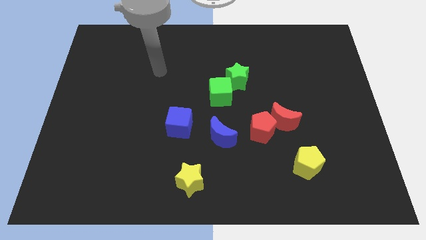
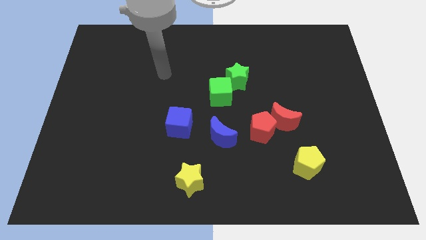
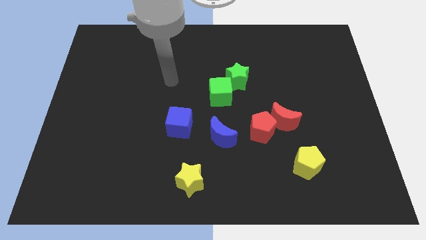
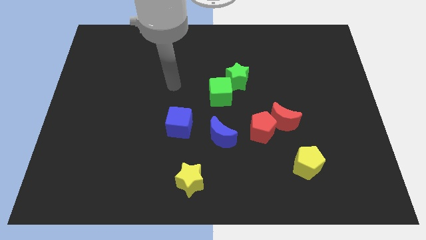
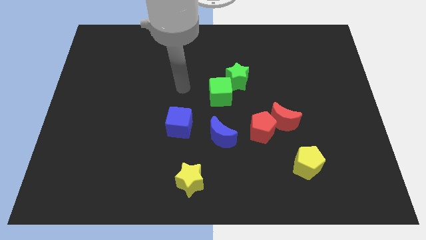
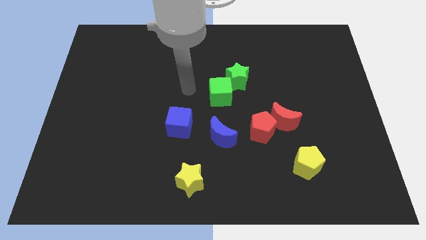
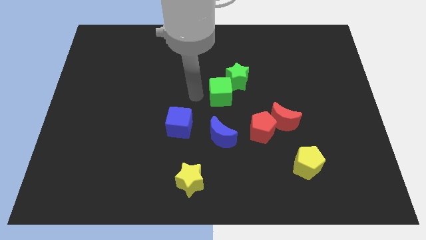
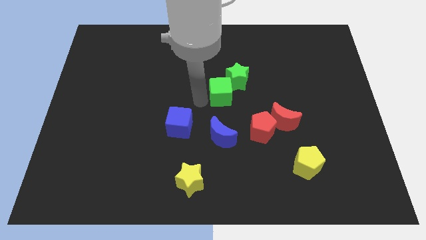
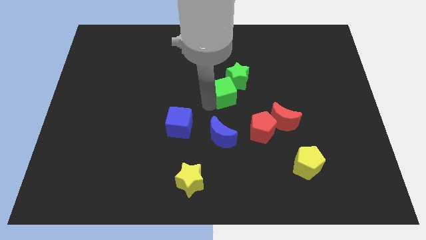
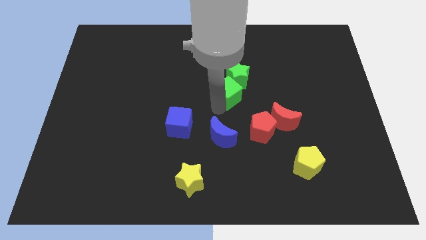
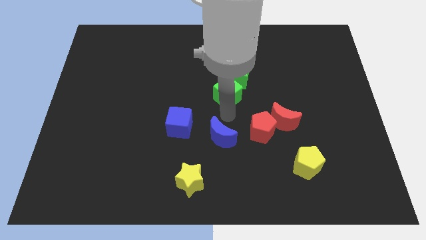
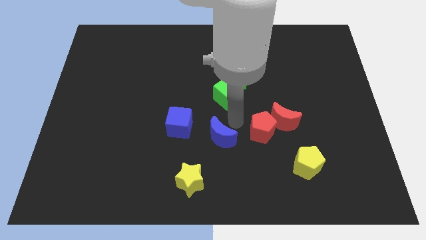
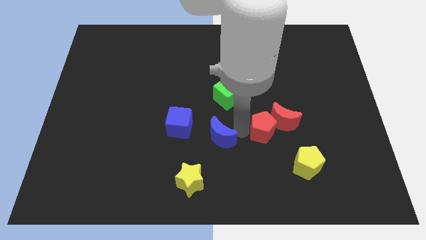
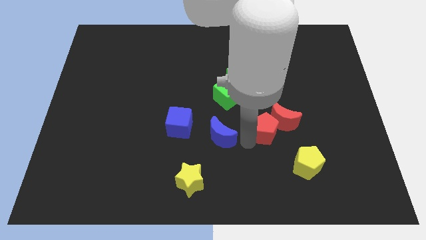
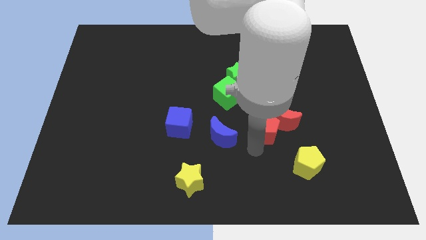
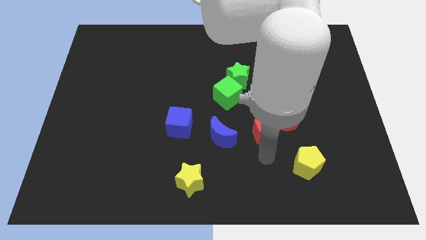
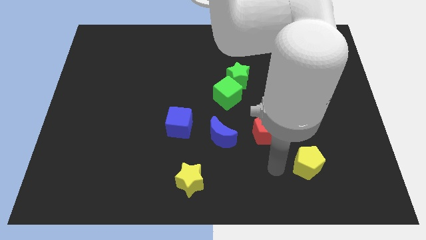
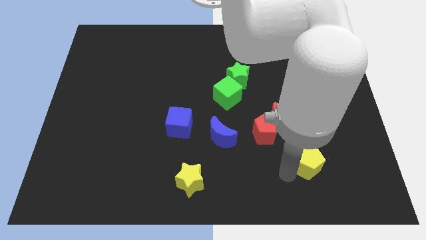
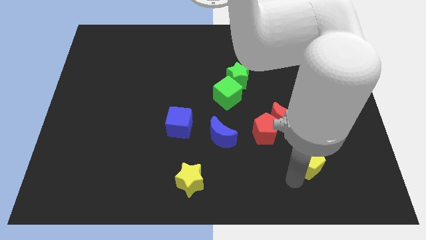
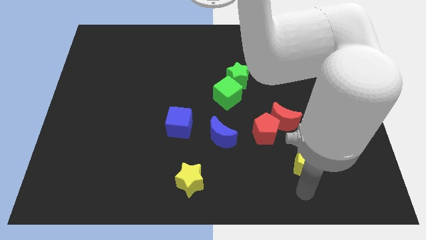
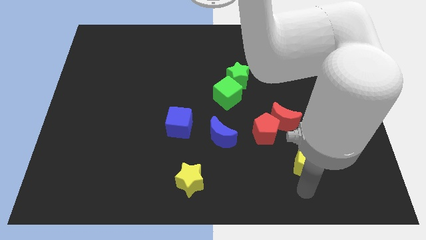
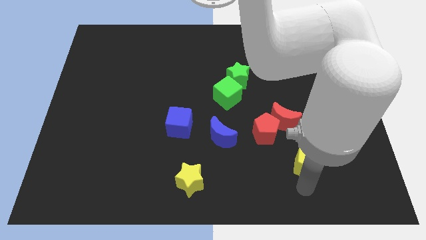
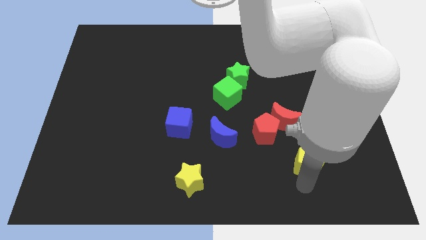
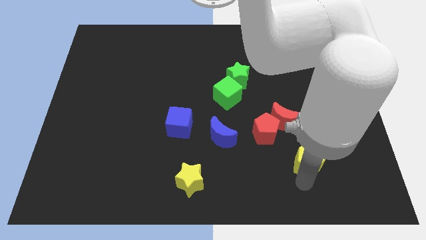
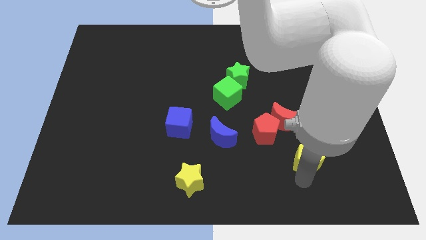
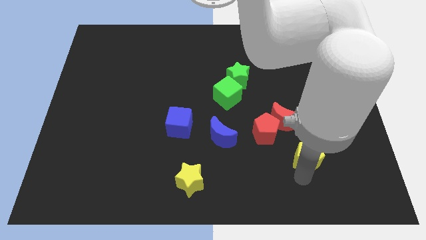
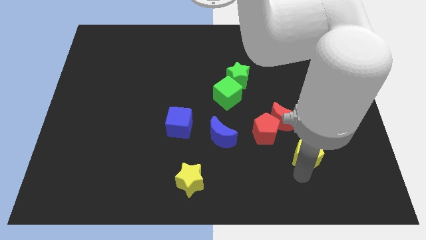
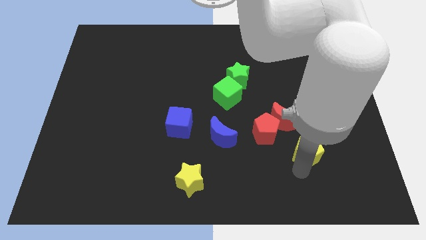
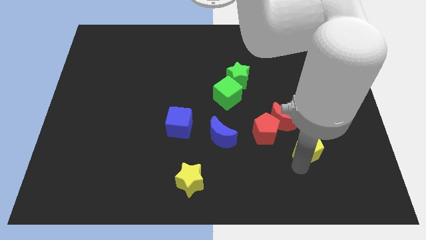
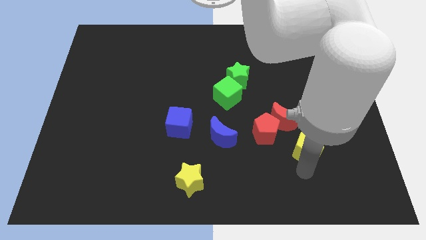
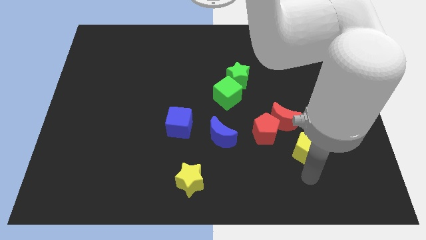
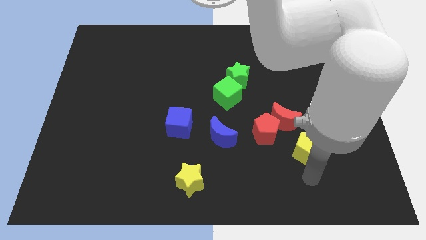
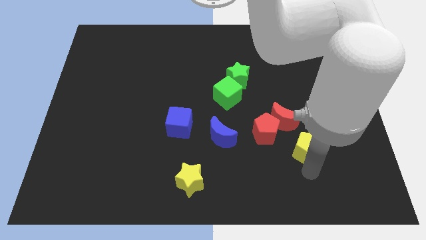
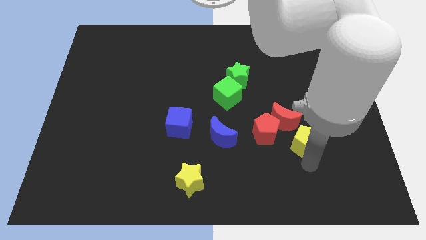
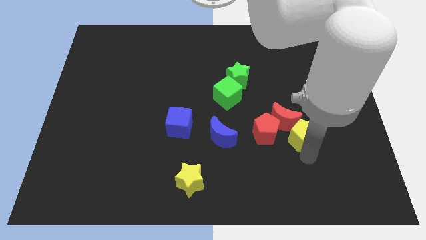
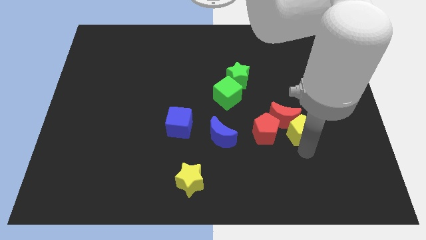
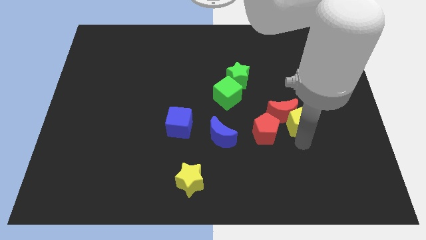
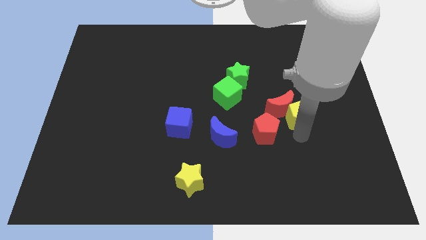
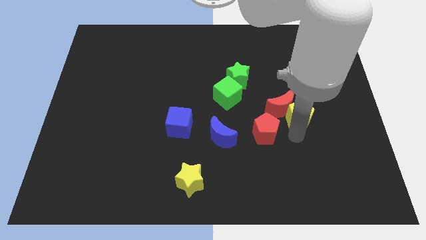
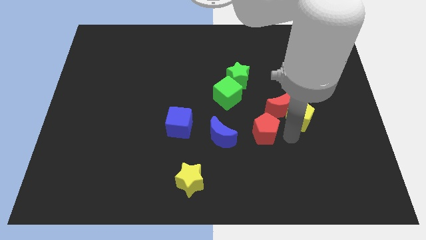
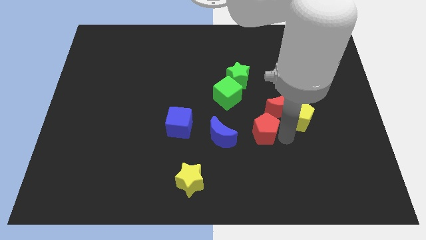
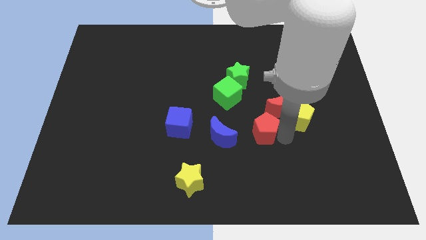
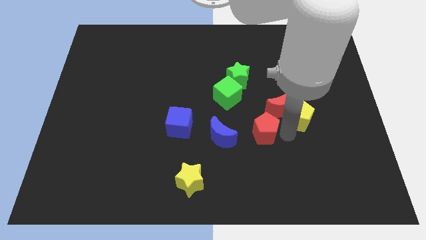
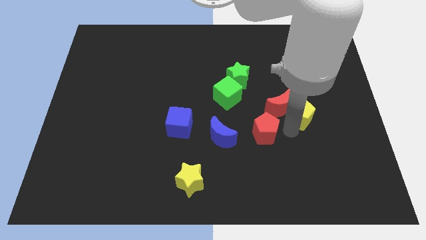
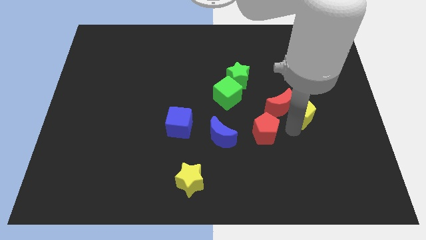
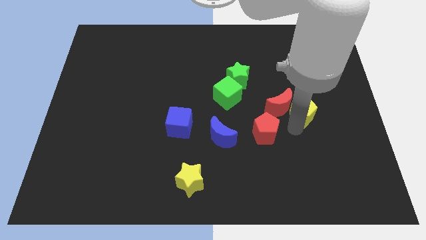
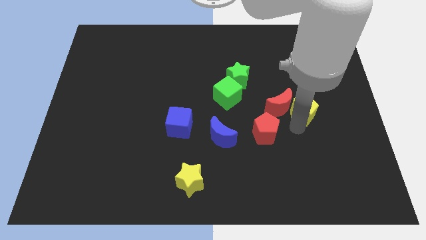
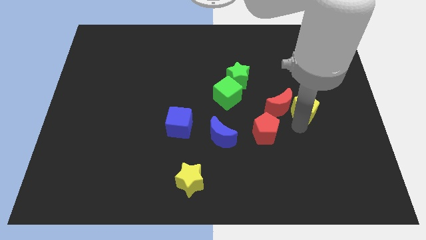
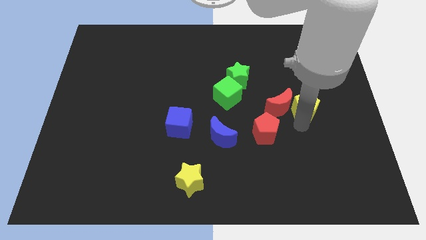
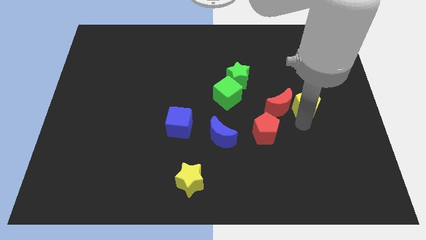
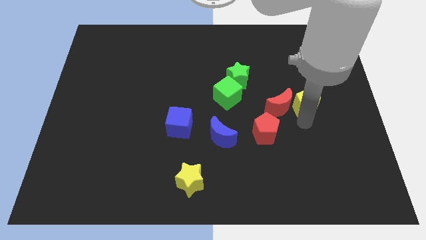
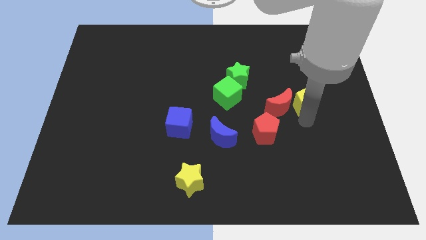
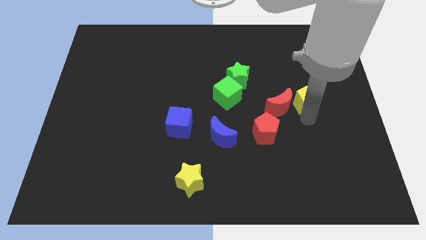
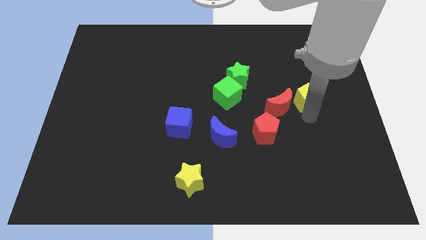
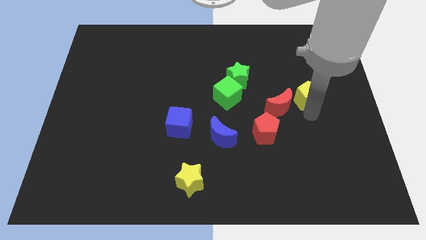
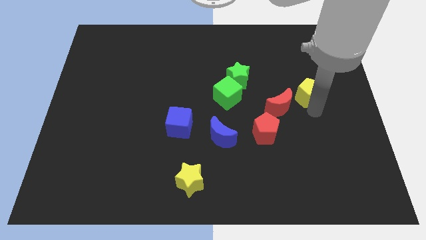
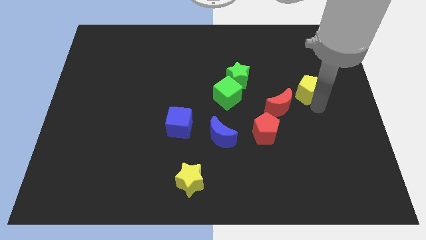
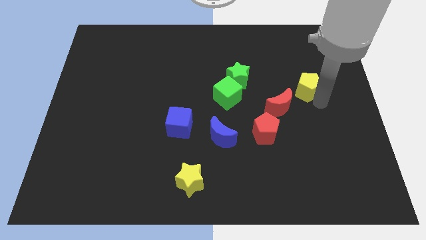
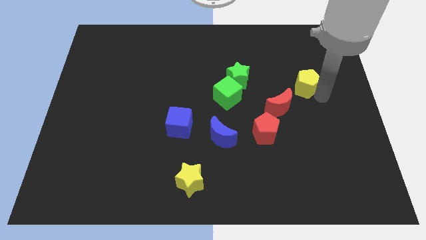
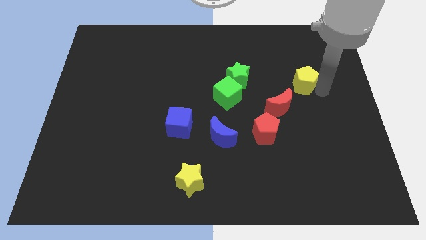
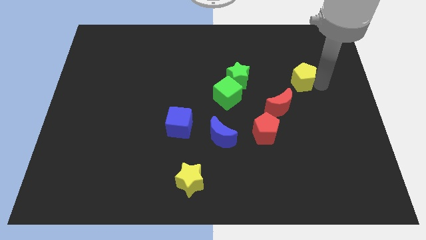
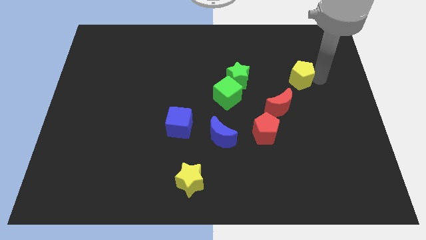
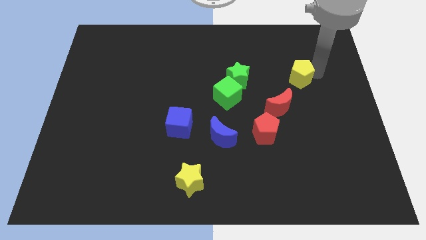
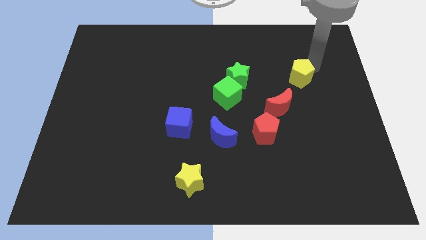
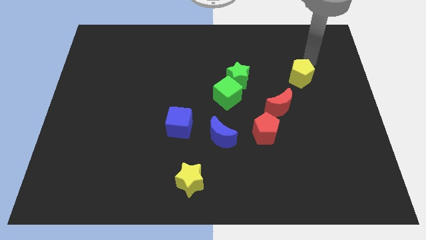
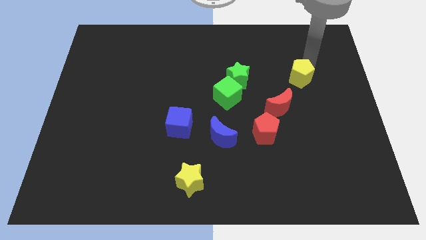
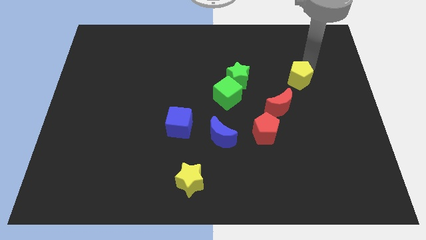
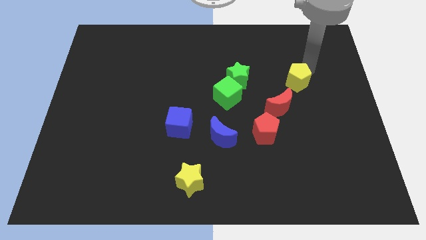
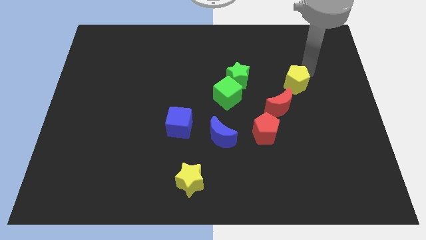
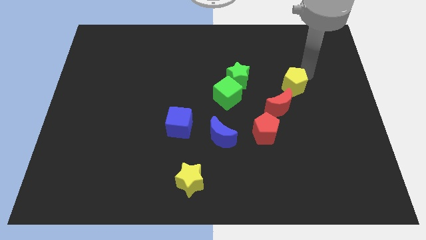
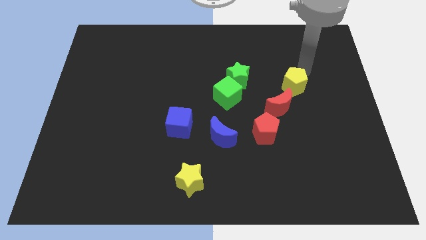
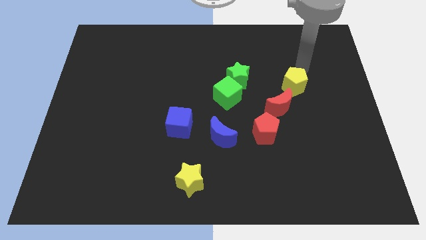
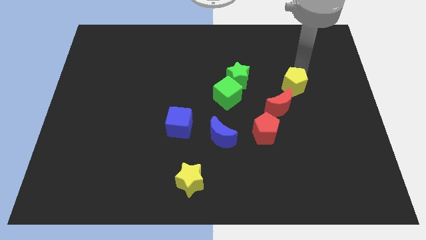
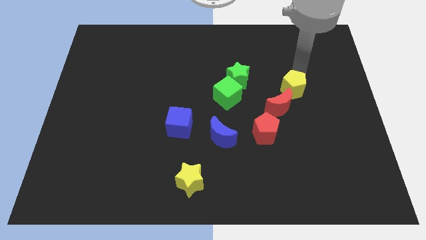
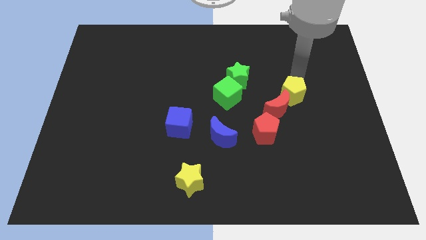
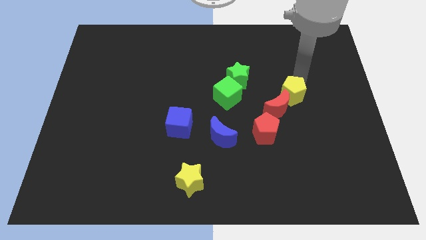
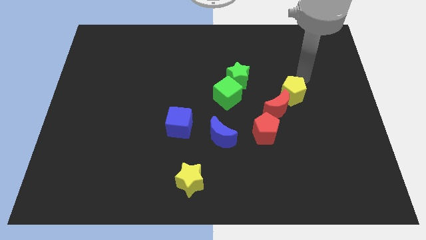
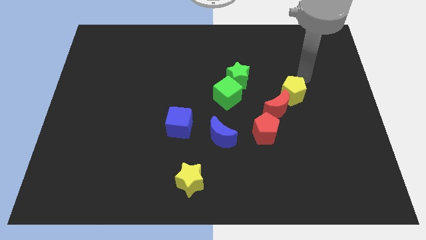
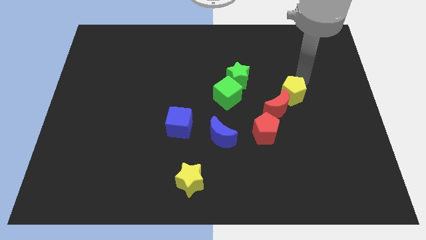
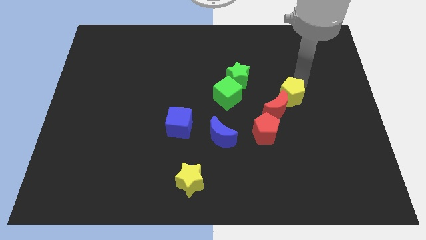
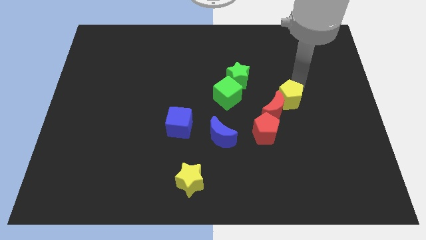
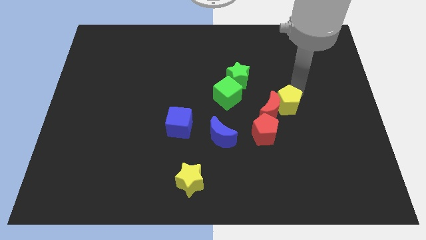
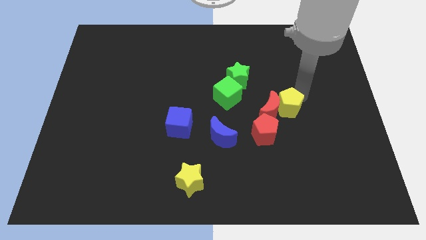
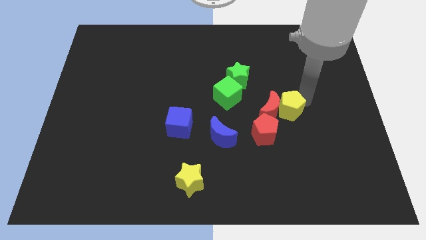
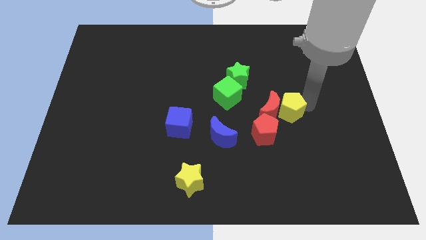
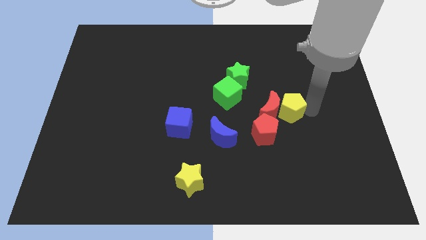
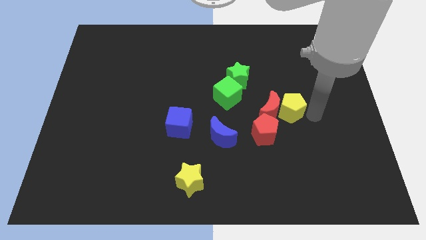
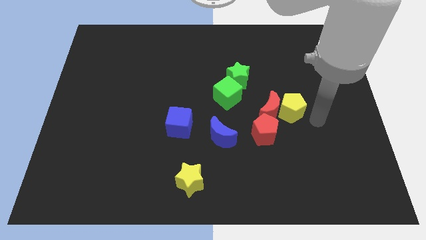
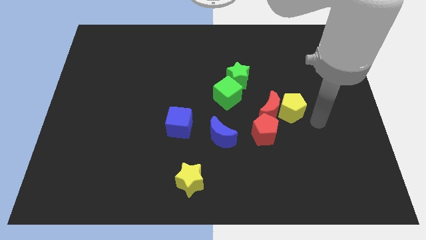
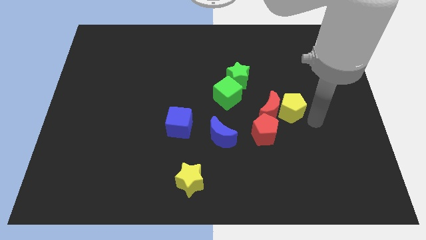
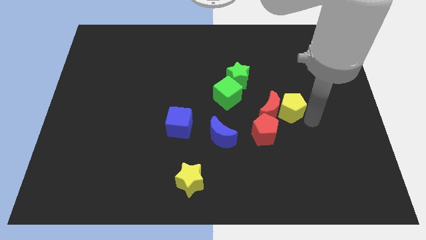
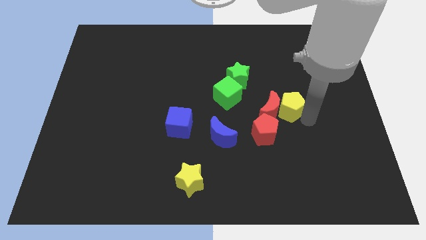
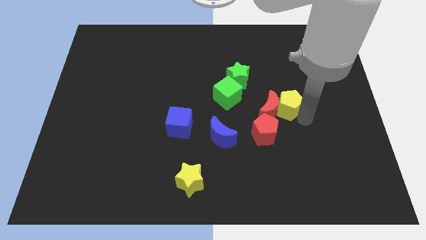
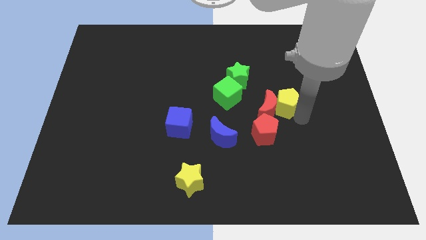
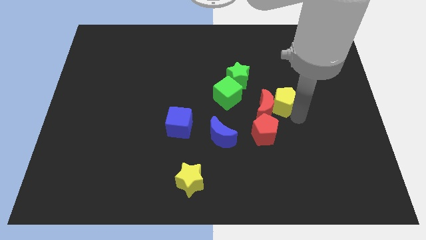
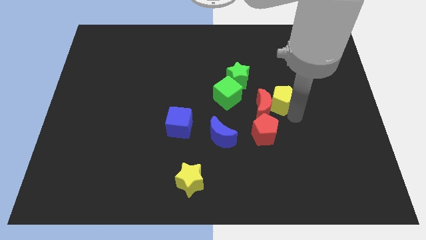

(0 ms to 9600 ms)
push the yellow pentagon to the top of the red pentagon
